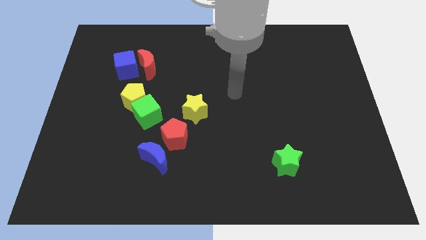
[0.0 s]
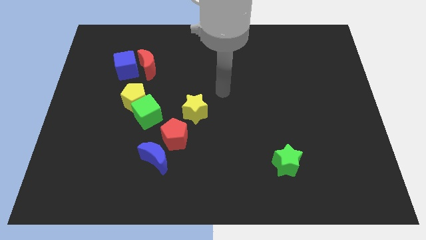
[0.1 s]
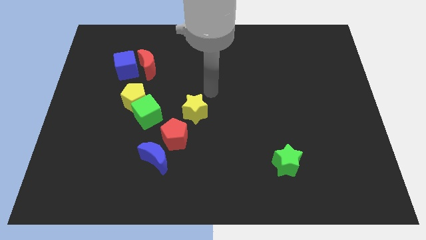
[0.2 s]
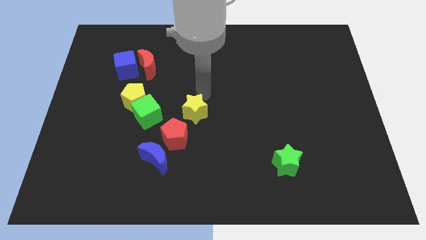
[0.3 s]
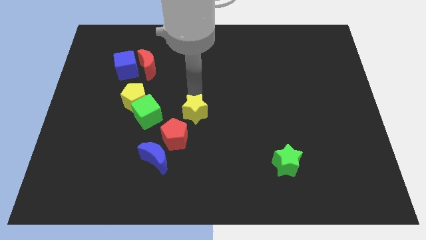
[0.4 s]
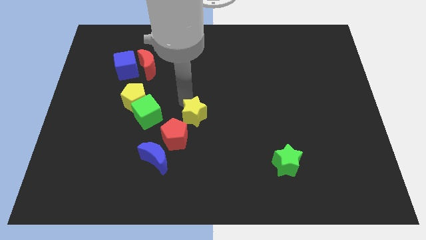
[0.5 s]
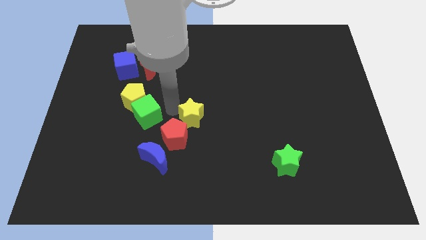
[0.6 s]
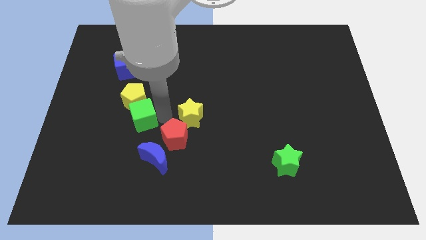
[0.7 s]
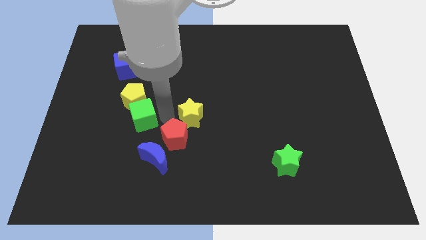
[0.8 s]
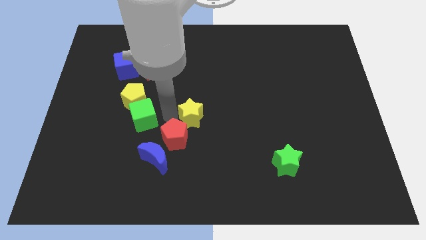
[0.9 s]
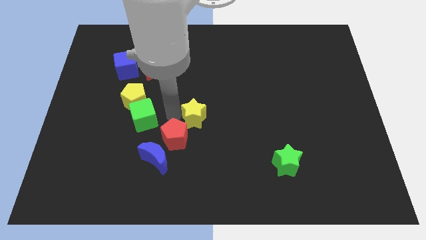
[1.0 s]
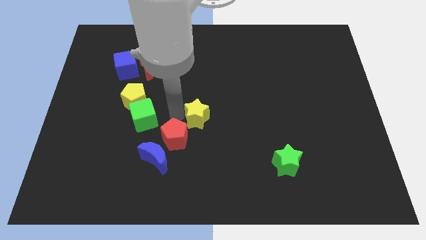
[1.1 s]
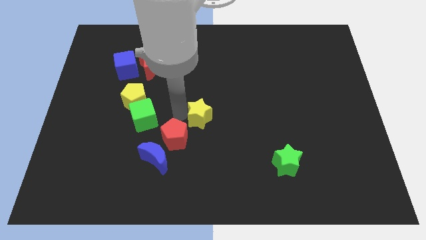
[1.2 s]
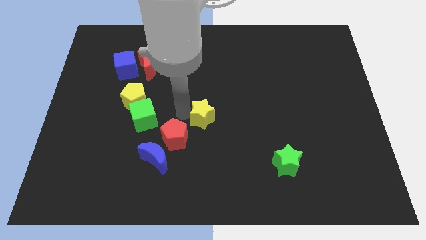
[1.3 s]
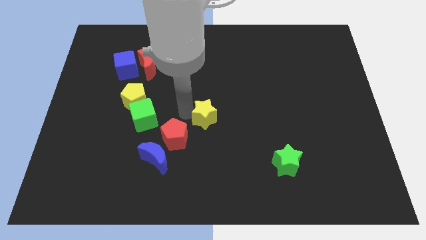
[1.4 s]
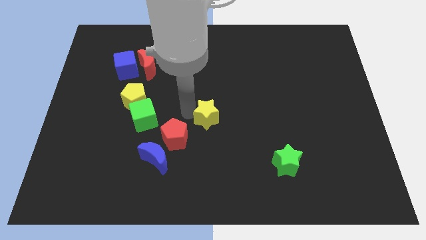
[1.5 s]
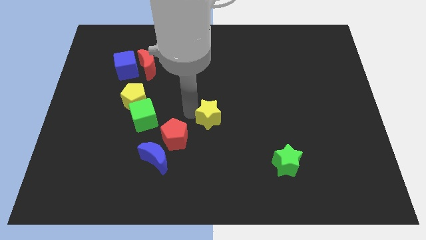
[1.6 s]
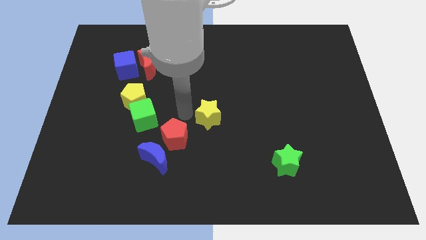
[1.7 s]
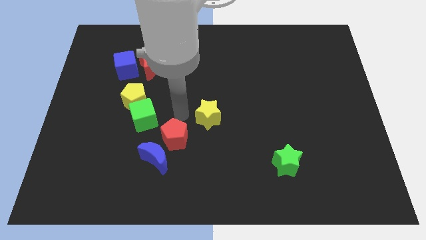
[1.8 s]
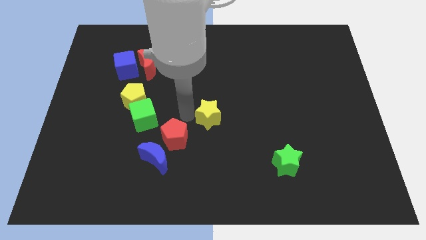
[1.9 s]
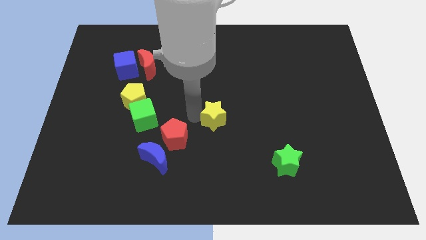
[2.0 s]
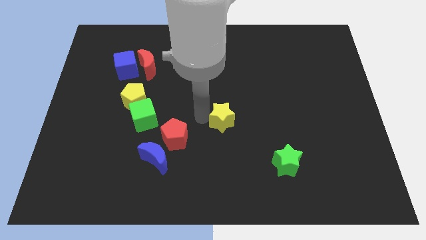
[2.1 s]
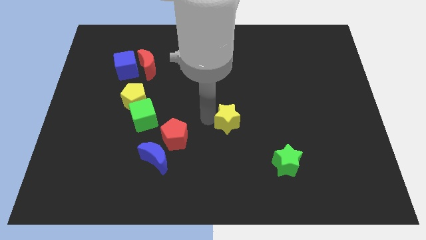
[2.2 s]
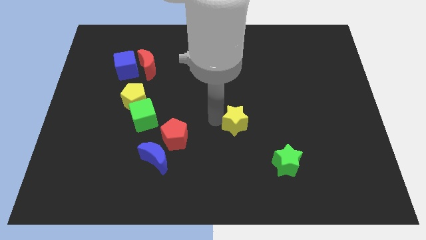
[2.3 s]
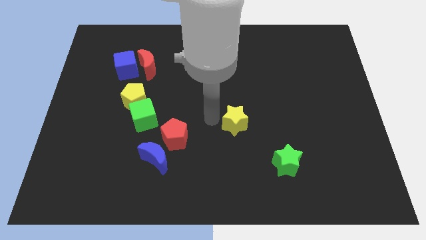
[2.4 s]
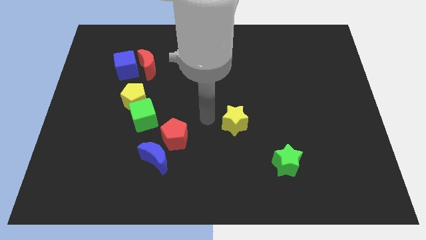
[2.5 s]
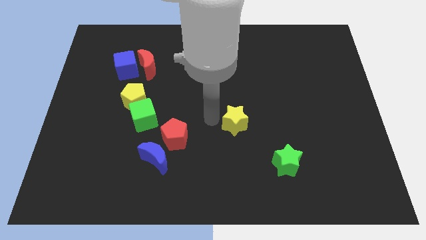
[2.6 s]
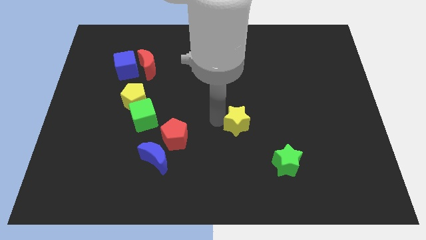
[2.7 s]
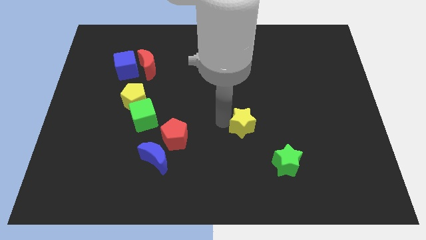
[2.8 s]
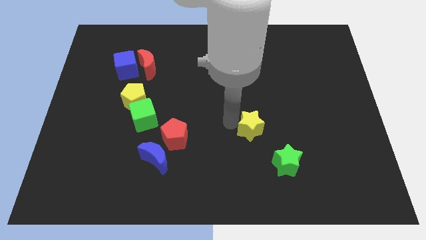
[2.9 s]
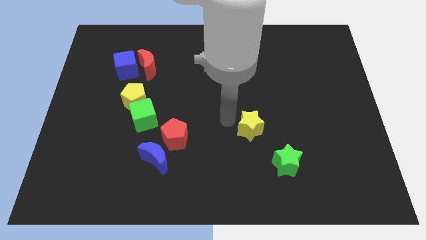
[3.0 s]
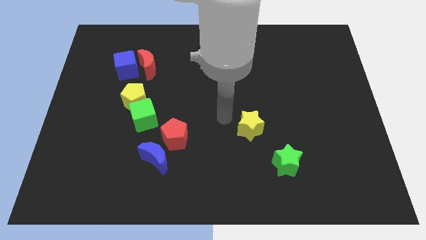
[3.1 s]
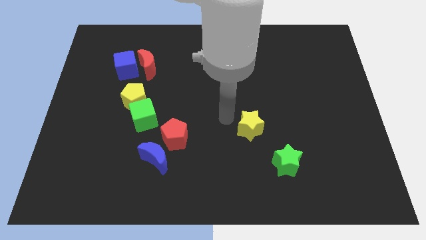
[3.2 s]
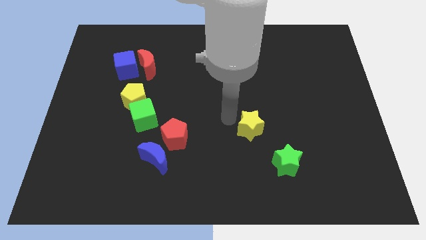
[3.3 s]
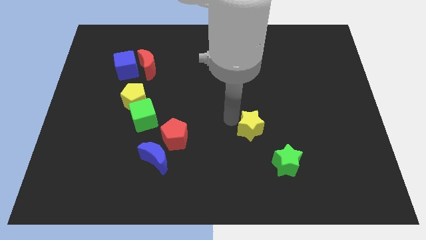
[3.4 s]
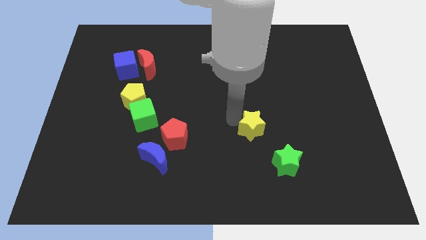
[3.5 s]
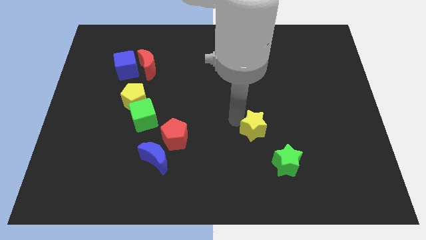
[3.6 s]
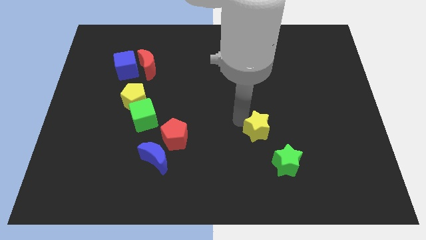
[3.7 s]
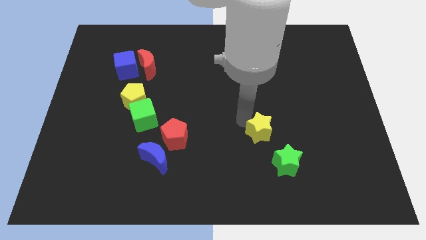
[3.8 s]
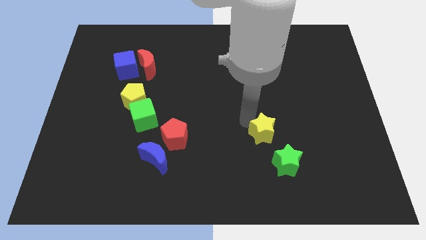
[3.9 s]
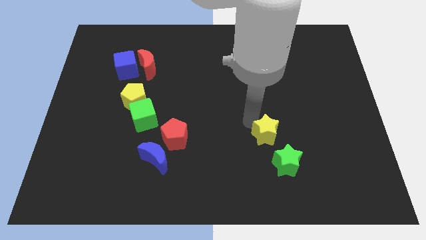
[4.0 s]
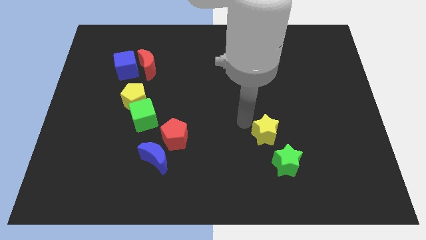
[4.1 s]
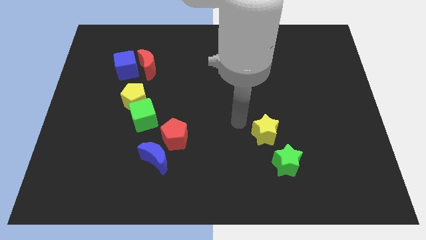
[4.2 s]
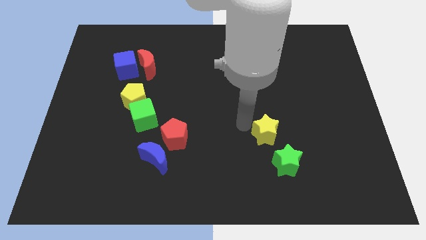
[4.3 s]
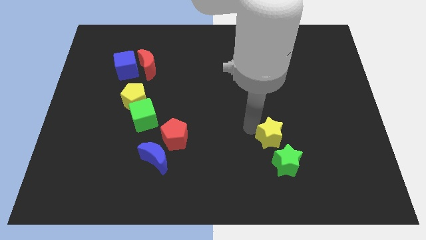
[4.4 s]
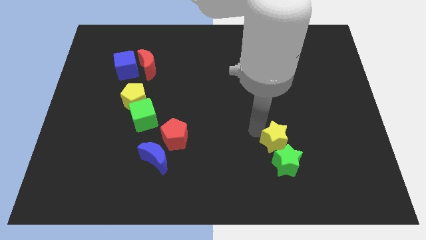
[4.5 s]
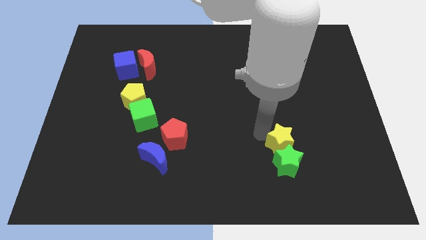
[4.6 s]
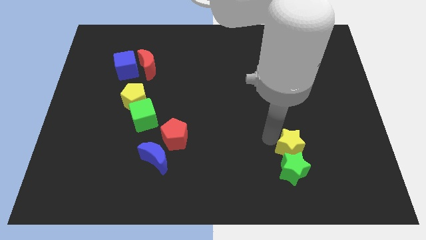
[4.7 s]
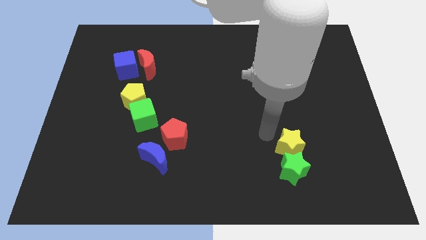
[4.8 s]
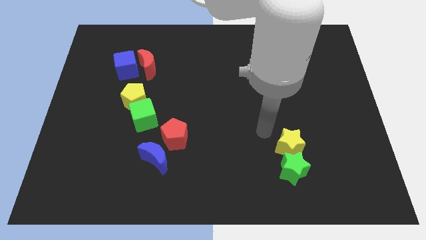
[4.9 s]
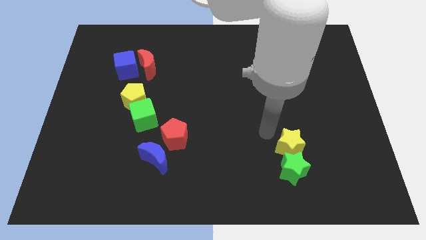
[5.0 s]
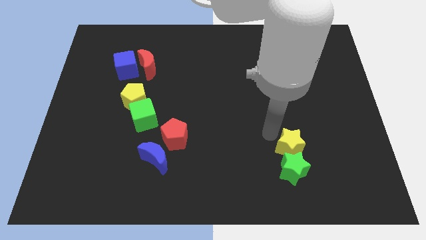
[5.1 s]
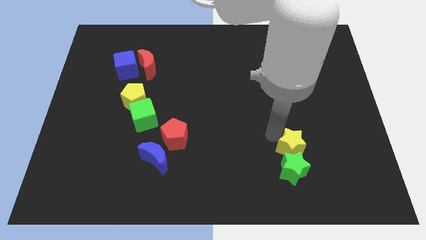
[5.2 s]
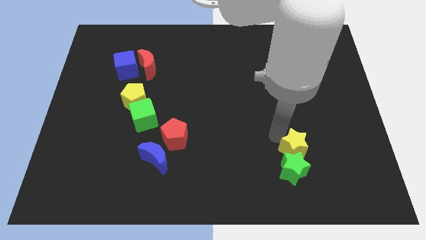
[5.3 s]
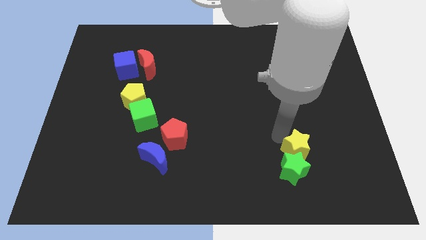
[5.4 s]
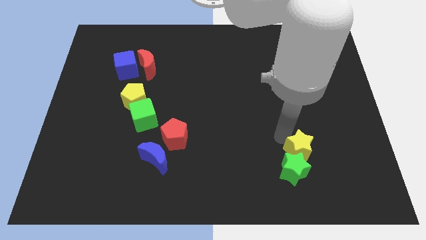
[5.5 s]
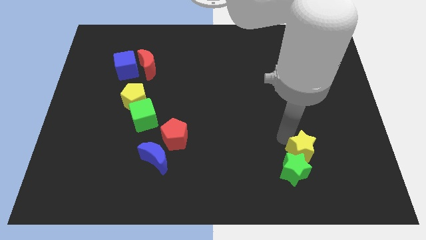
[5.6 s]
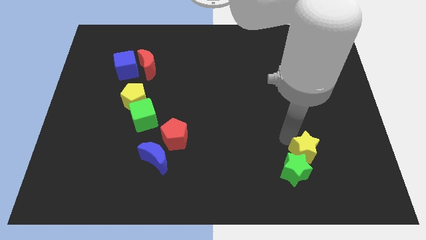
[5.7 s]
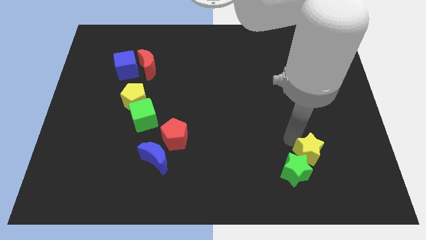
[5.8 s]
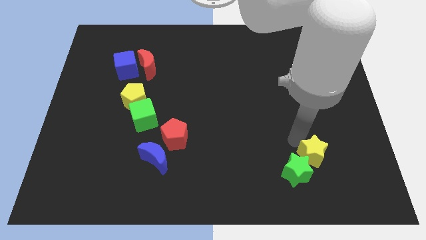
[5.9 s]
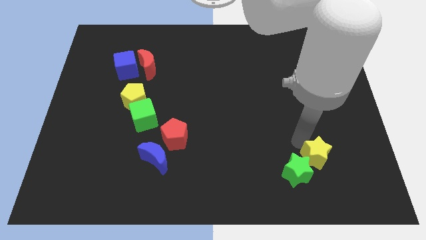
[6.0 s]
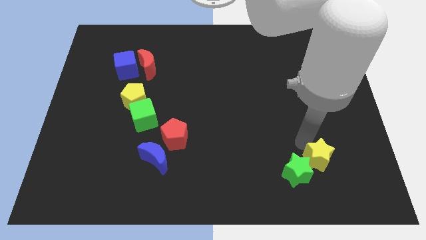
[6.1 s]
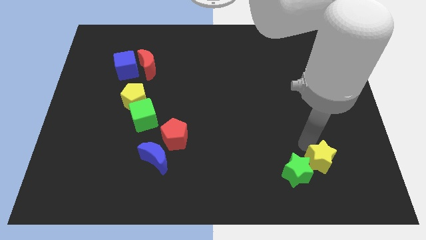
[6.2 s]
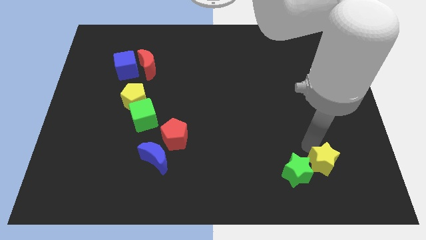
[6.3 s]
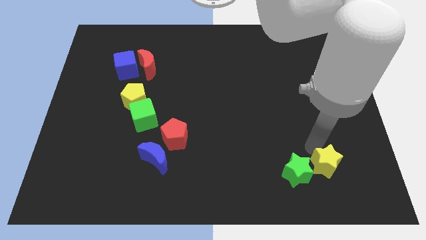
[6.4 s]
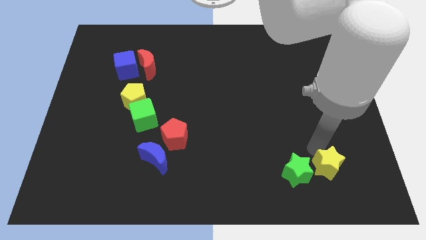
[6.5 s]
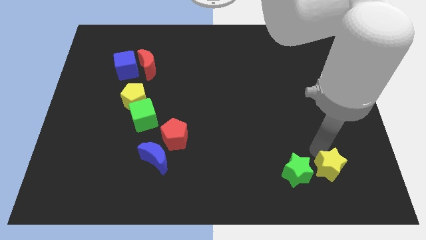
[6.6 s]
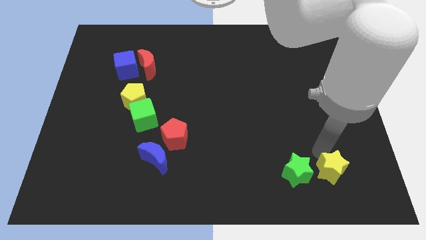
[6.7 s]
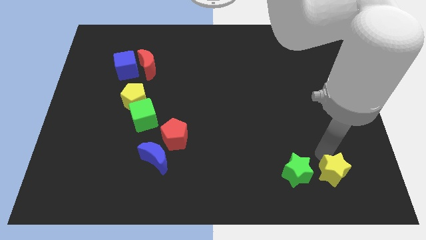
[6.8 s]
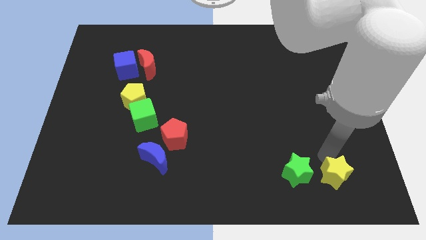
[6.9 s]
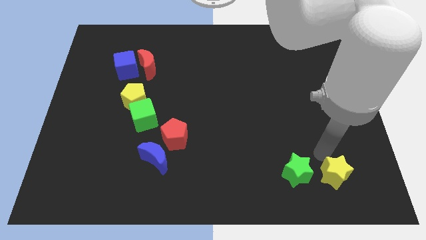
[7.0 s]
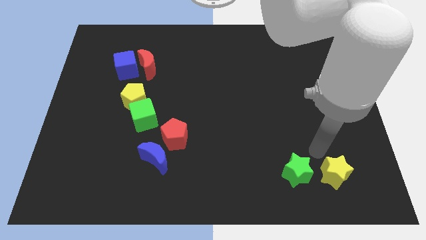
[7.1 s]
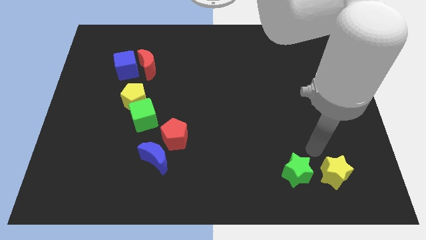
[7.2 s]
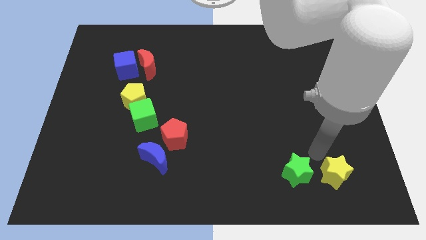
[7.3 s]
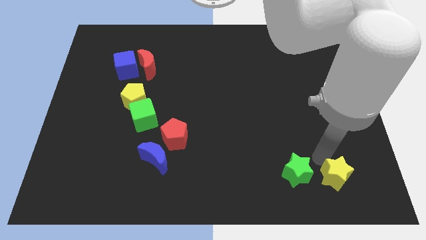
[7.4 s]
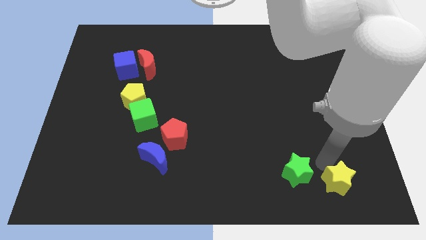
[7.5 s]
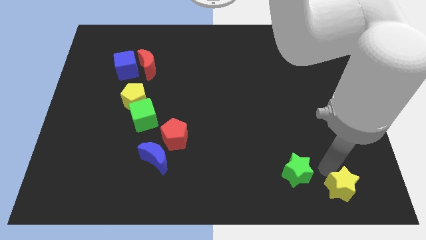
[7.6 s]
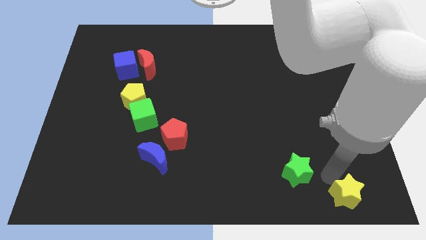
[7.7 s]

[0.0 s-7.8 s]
push the yellow star to the bottom right corner
